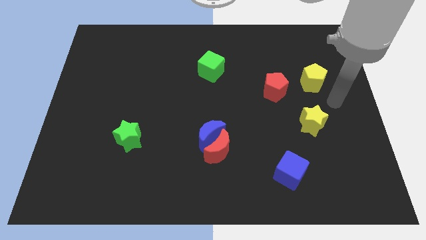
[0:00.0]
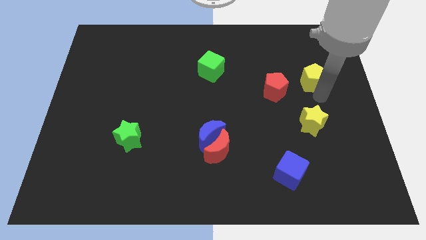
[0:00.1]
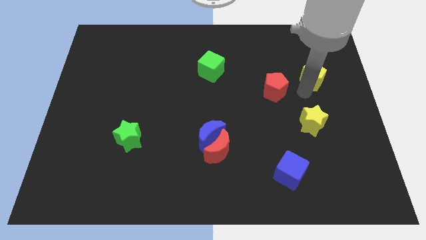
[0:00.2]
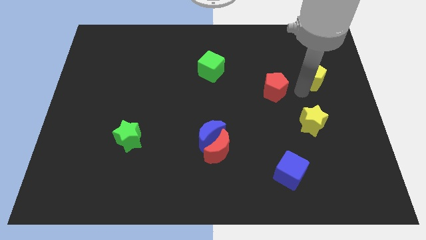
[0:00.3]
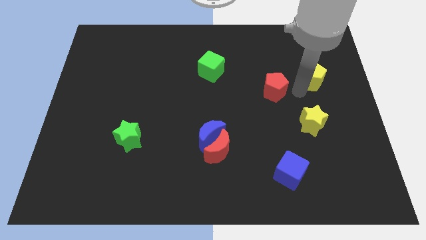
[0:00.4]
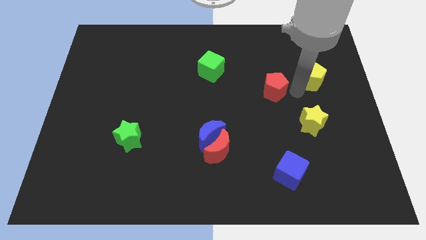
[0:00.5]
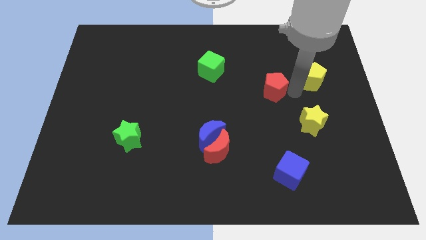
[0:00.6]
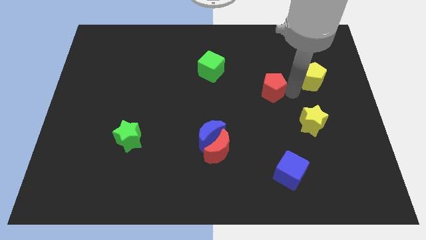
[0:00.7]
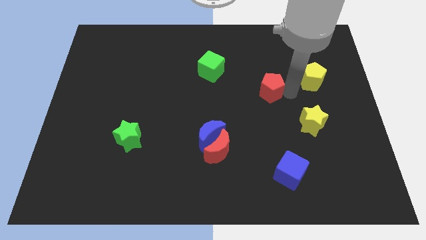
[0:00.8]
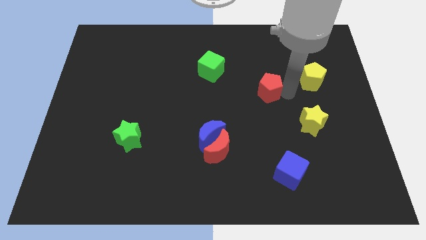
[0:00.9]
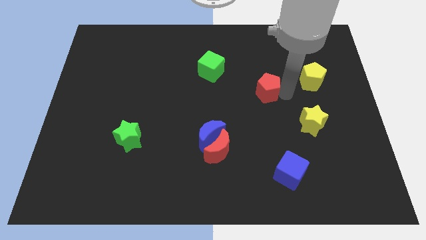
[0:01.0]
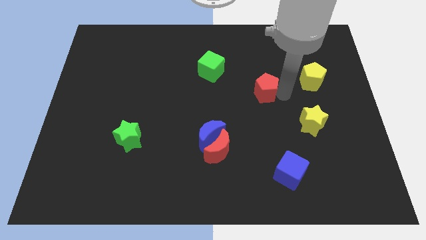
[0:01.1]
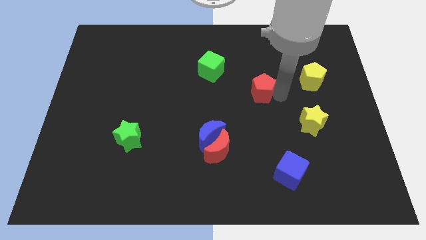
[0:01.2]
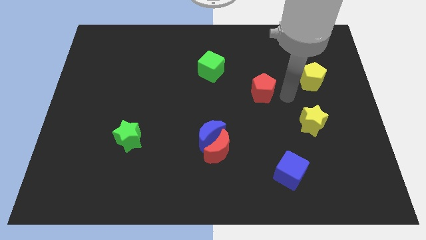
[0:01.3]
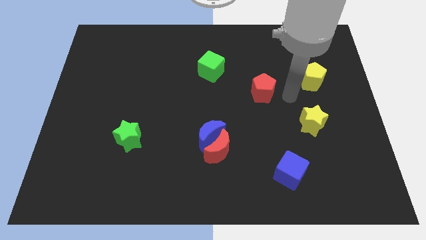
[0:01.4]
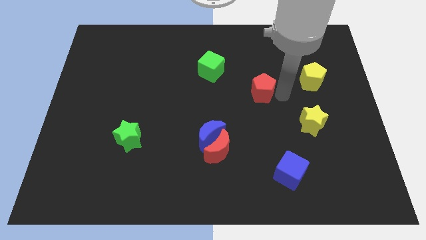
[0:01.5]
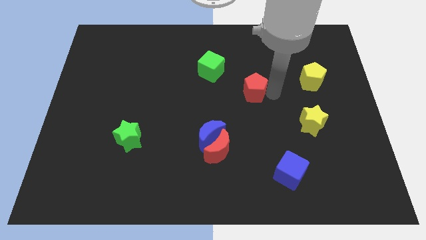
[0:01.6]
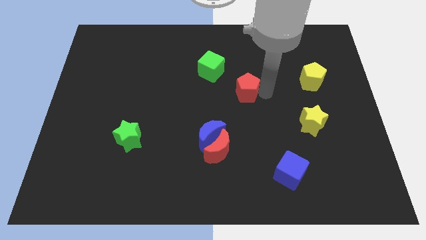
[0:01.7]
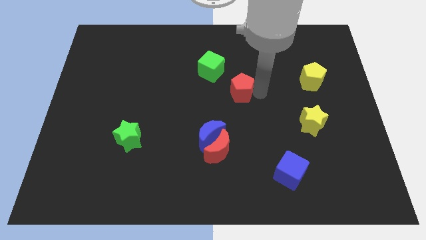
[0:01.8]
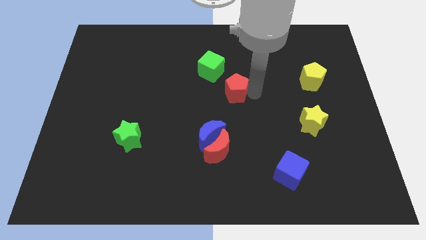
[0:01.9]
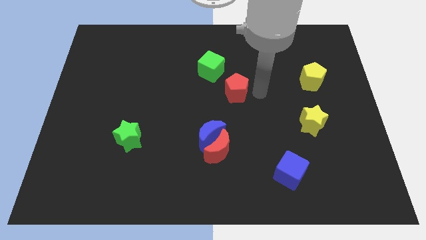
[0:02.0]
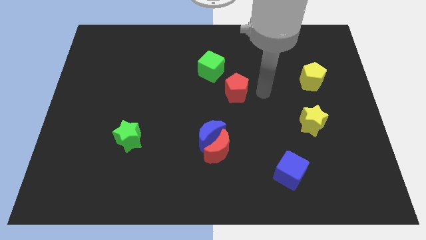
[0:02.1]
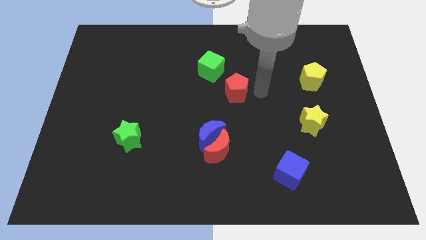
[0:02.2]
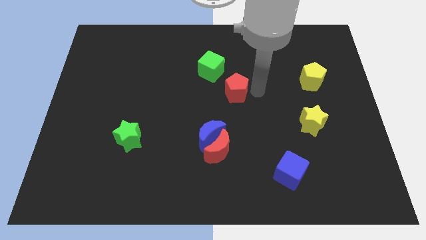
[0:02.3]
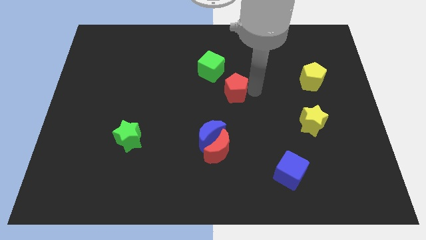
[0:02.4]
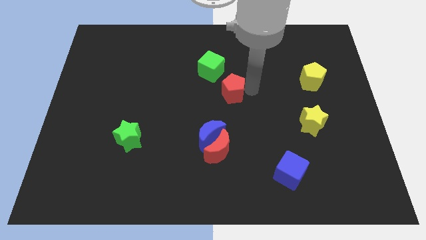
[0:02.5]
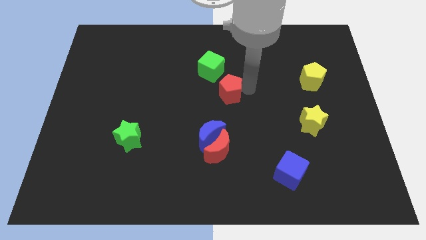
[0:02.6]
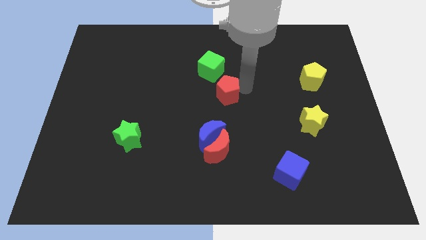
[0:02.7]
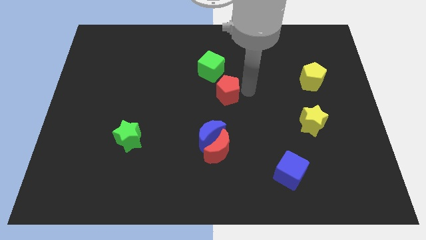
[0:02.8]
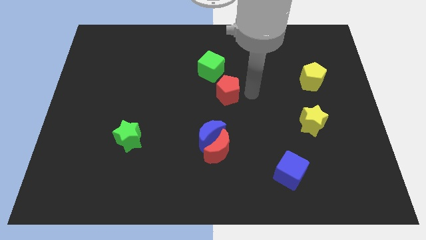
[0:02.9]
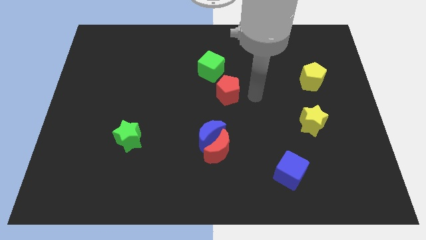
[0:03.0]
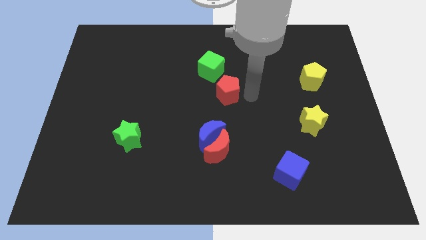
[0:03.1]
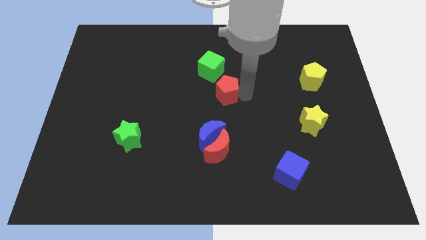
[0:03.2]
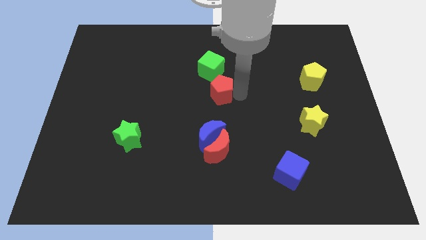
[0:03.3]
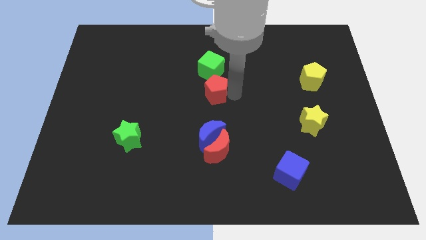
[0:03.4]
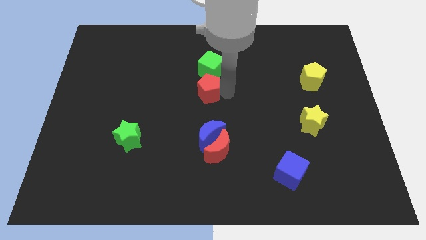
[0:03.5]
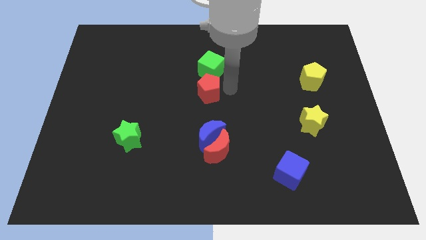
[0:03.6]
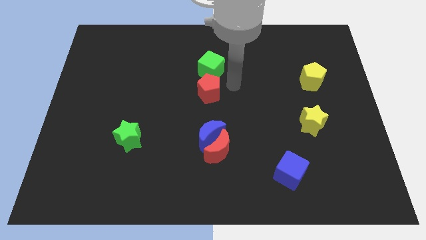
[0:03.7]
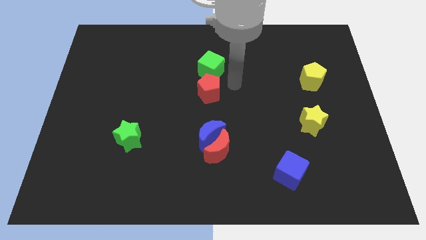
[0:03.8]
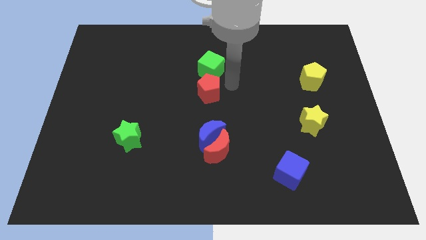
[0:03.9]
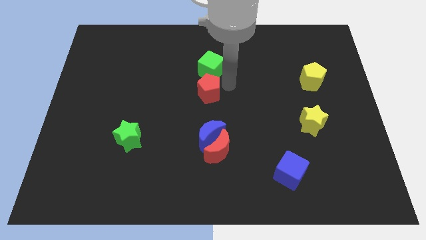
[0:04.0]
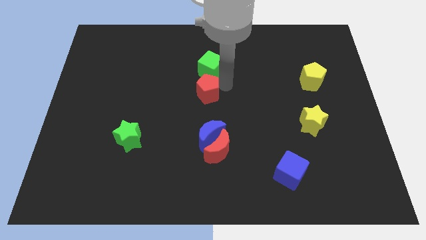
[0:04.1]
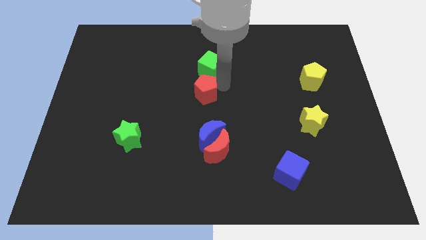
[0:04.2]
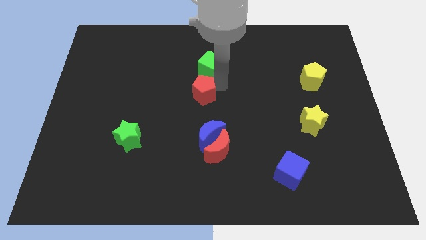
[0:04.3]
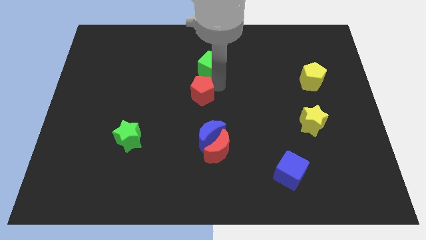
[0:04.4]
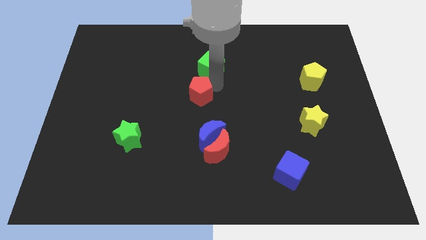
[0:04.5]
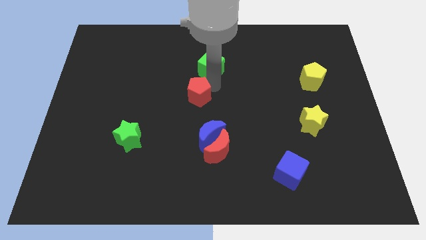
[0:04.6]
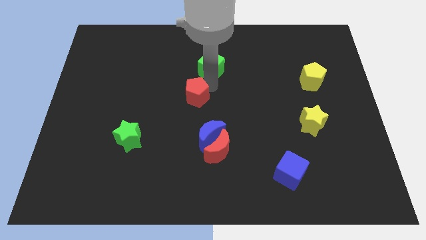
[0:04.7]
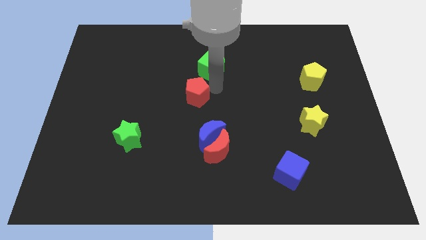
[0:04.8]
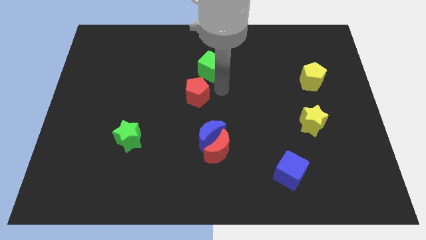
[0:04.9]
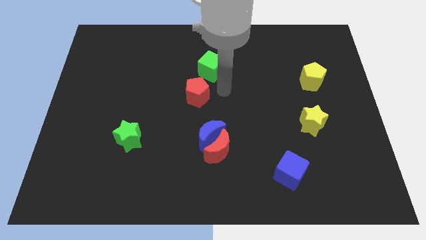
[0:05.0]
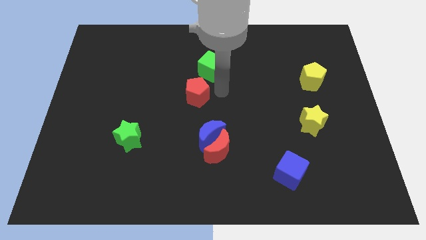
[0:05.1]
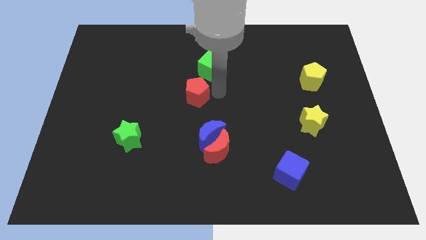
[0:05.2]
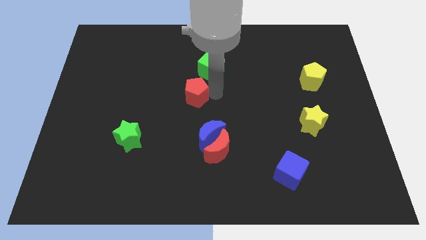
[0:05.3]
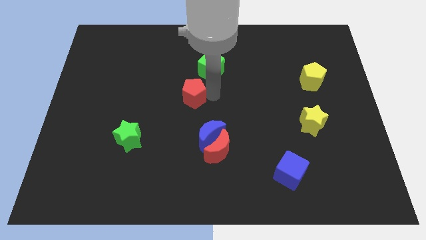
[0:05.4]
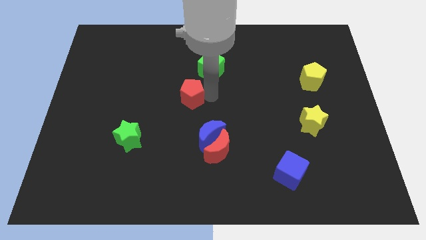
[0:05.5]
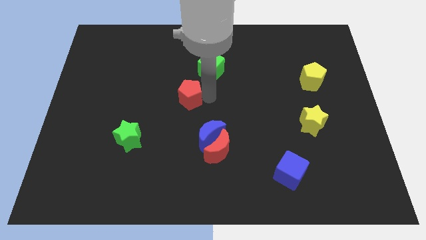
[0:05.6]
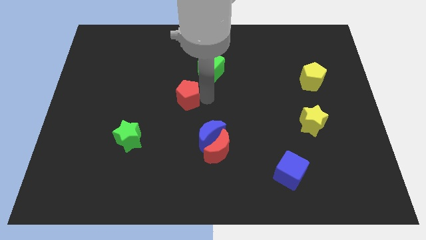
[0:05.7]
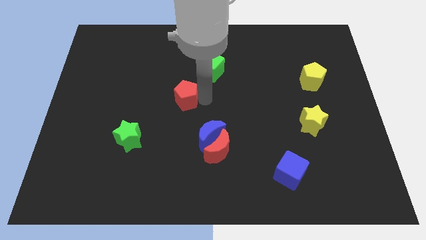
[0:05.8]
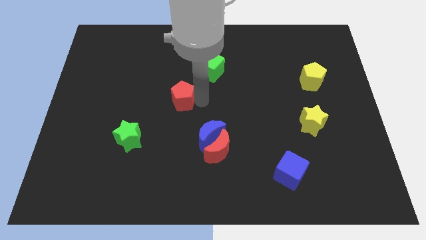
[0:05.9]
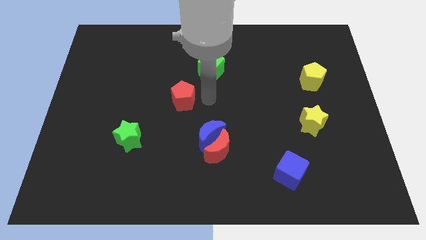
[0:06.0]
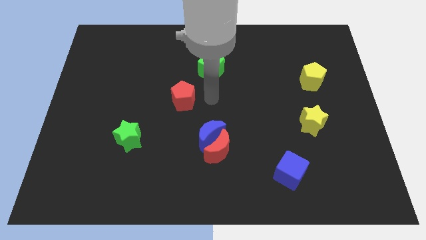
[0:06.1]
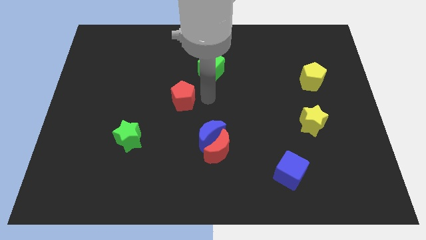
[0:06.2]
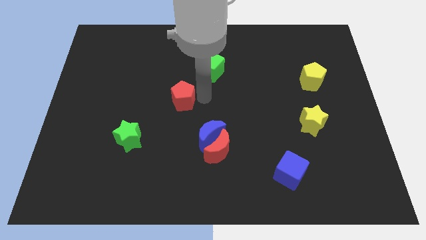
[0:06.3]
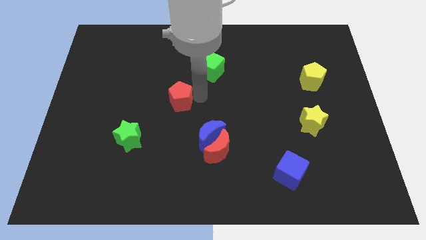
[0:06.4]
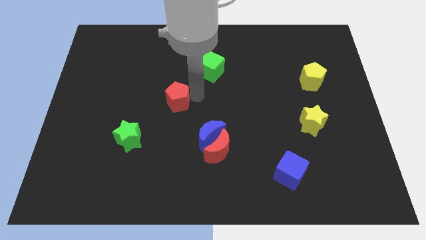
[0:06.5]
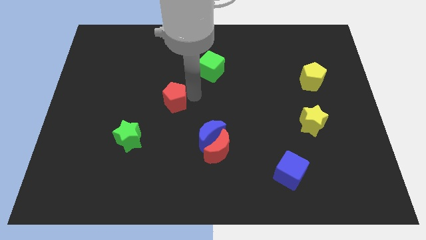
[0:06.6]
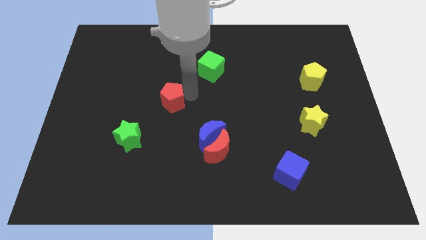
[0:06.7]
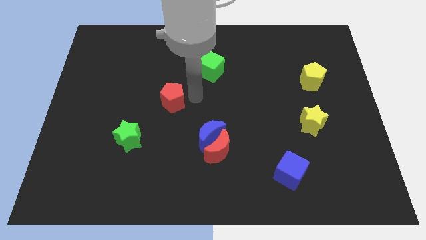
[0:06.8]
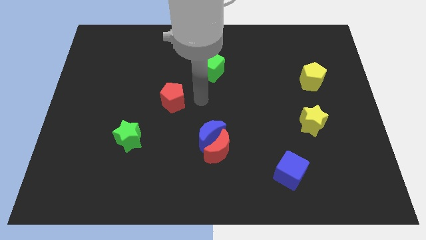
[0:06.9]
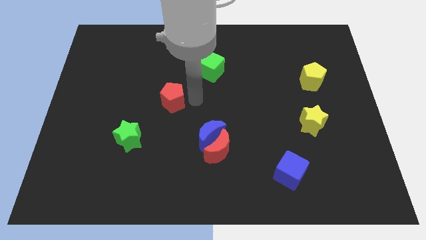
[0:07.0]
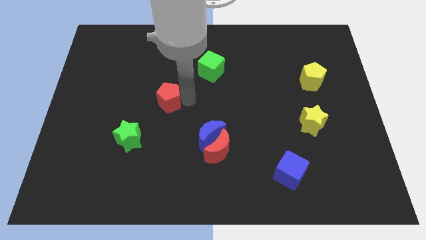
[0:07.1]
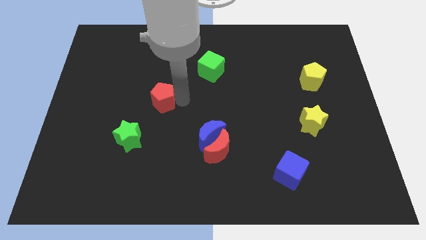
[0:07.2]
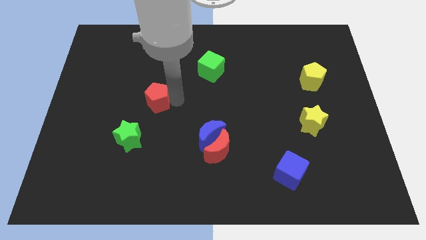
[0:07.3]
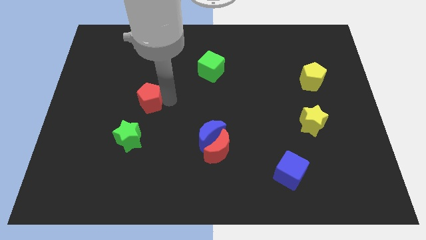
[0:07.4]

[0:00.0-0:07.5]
slide the red pentagon to the top of the green star
